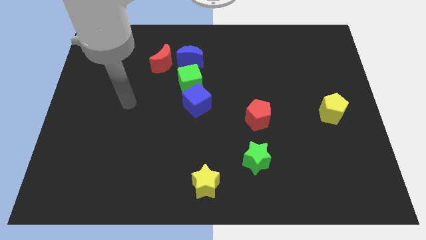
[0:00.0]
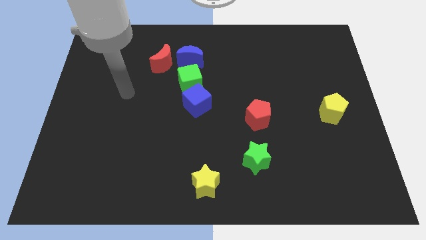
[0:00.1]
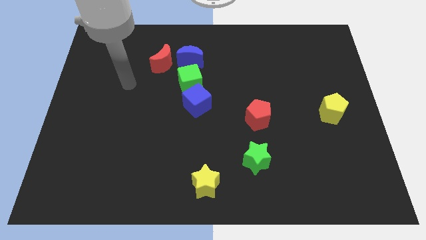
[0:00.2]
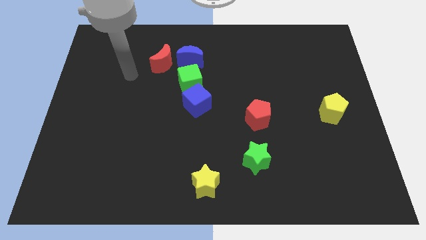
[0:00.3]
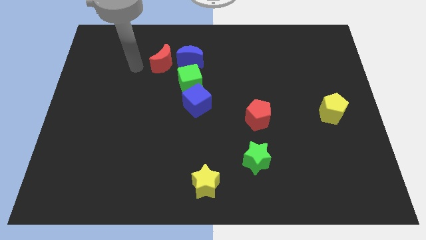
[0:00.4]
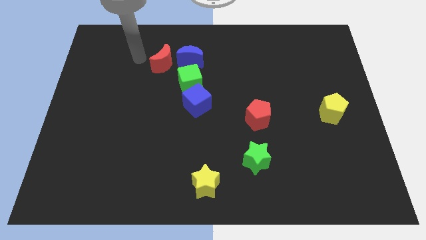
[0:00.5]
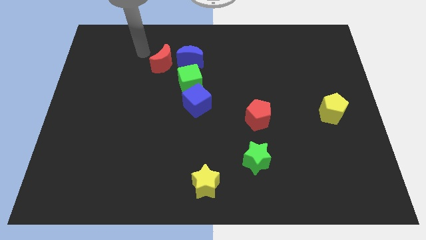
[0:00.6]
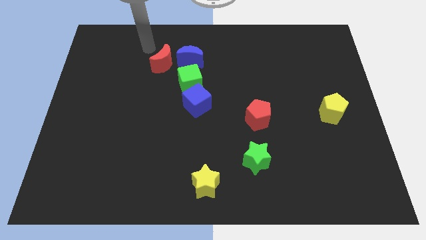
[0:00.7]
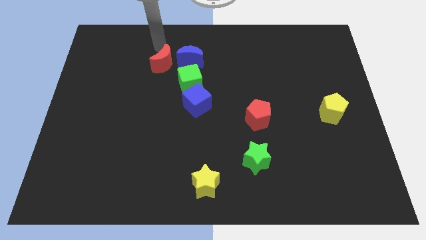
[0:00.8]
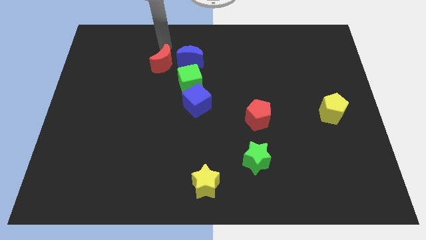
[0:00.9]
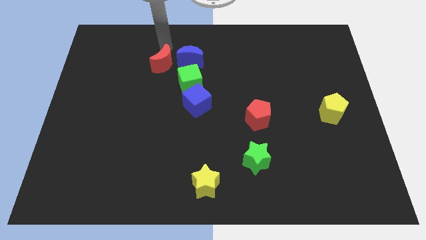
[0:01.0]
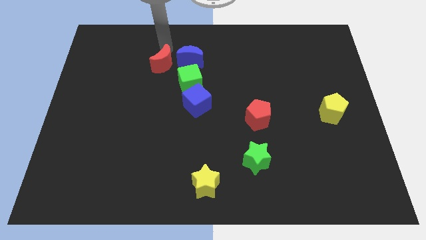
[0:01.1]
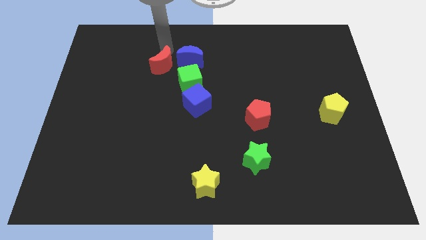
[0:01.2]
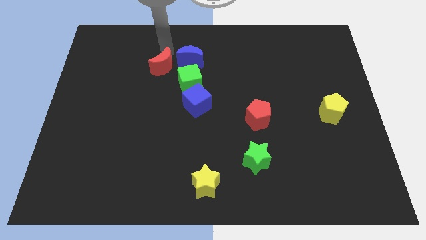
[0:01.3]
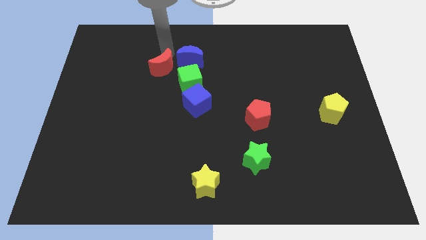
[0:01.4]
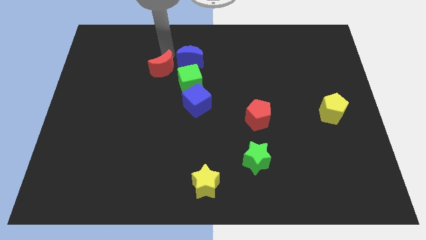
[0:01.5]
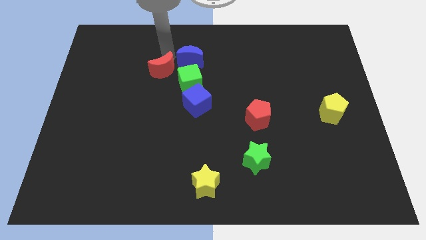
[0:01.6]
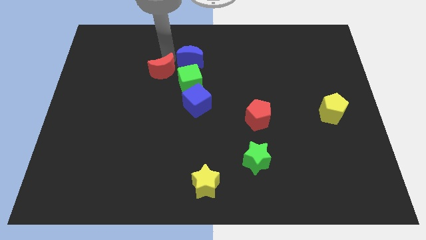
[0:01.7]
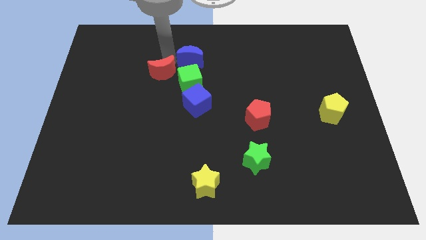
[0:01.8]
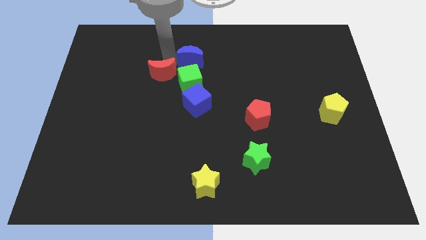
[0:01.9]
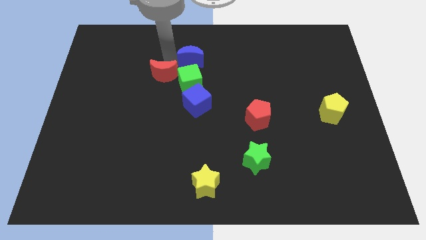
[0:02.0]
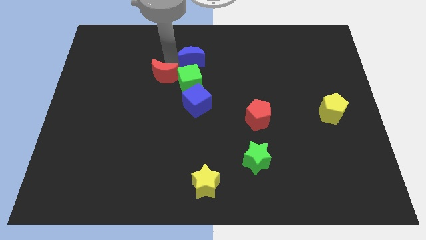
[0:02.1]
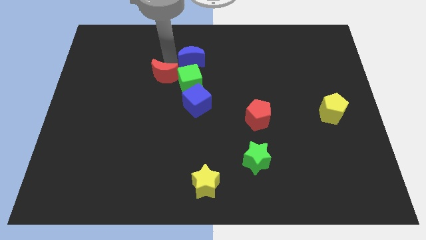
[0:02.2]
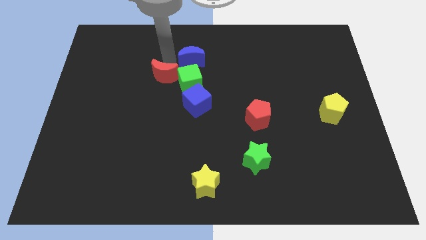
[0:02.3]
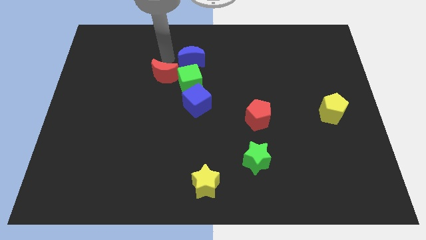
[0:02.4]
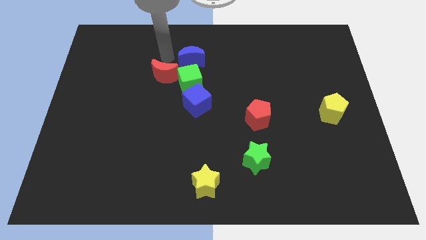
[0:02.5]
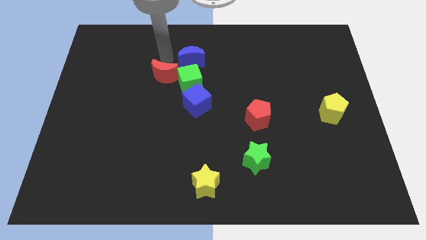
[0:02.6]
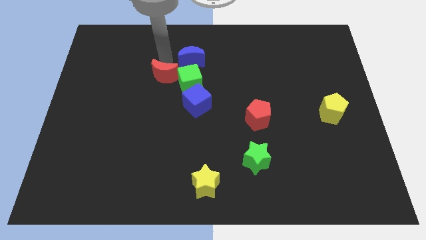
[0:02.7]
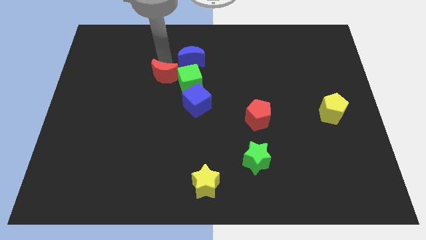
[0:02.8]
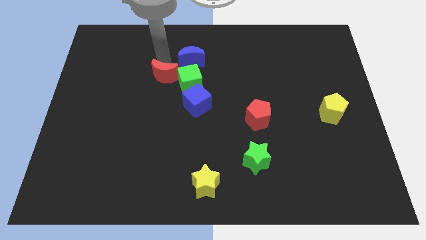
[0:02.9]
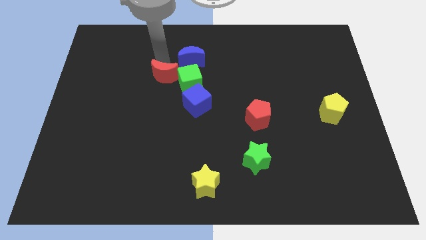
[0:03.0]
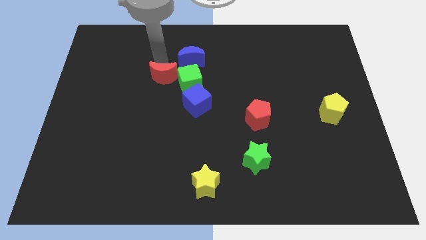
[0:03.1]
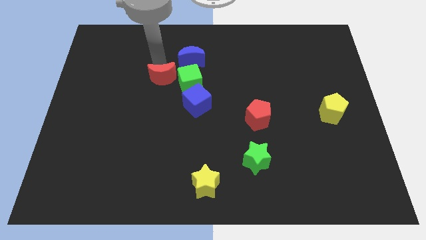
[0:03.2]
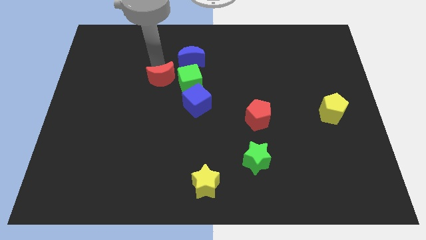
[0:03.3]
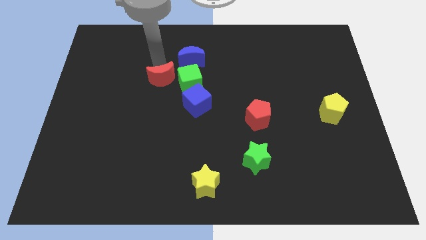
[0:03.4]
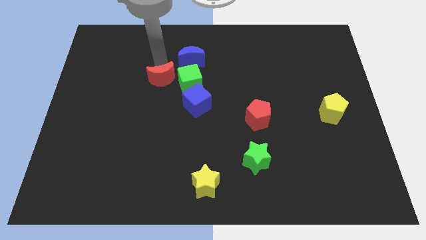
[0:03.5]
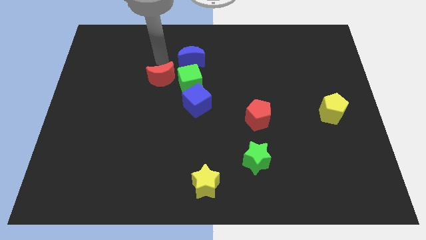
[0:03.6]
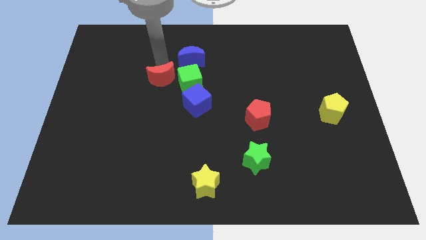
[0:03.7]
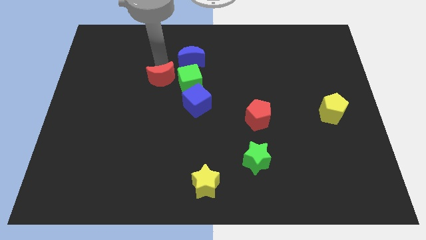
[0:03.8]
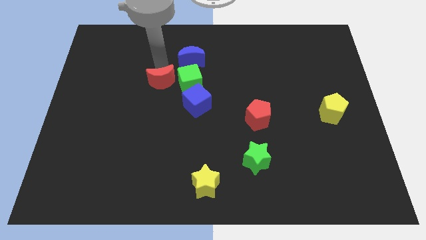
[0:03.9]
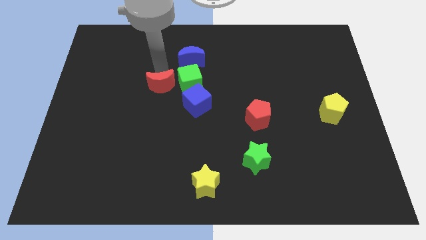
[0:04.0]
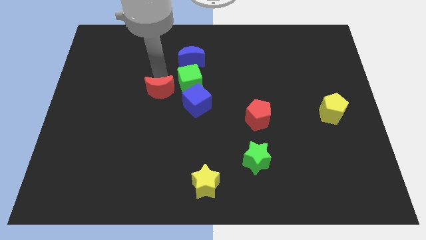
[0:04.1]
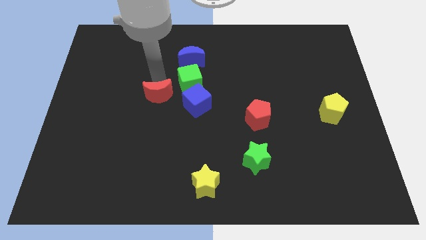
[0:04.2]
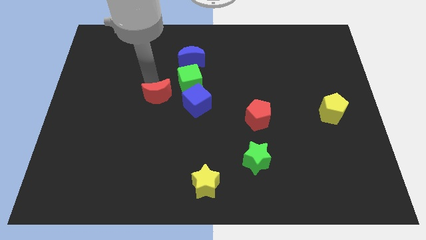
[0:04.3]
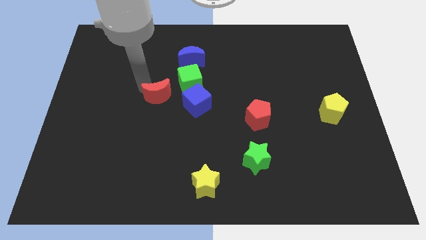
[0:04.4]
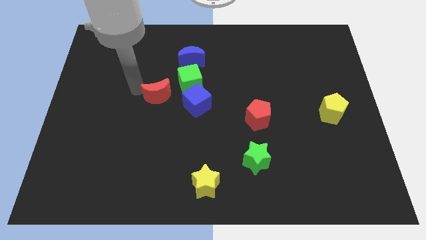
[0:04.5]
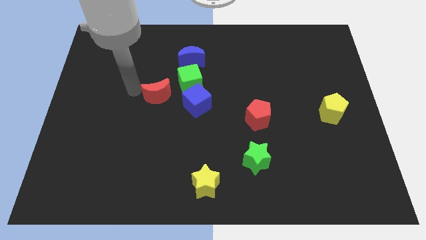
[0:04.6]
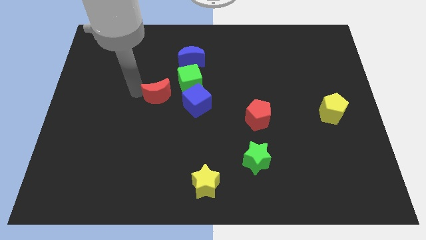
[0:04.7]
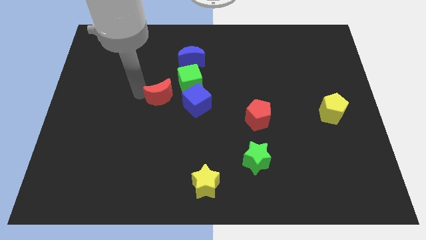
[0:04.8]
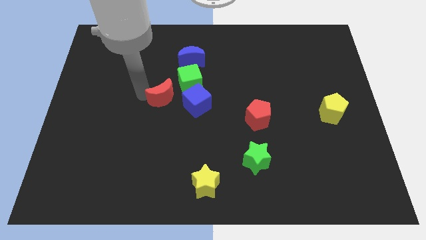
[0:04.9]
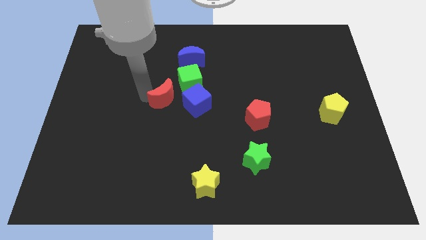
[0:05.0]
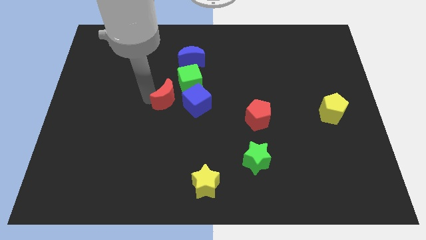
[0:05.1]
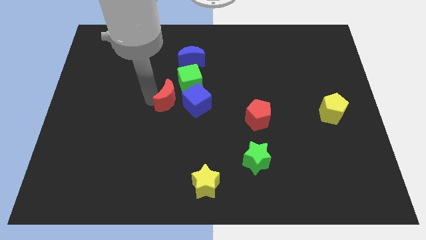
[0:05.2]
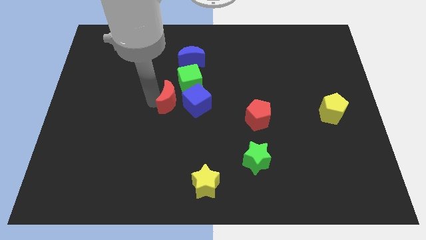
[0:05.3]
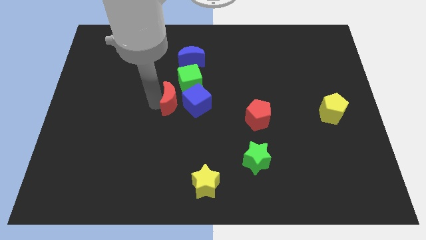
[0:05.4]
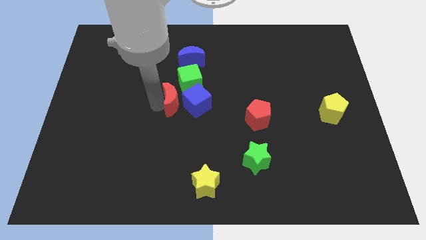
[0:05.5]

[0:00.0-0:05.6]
slide the red moon towards the blue cube

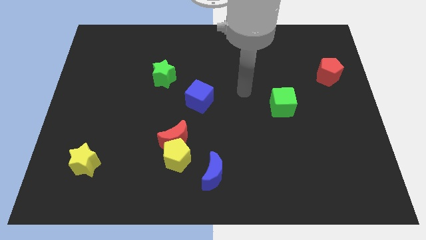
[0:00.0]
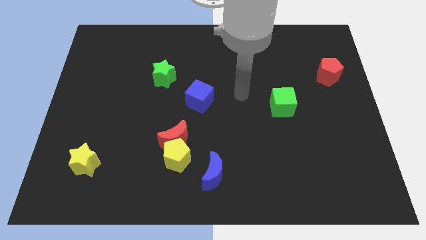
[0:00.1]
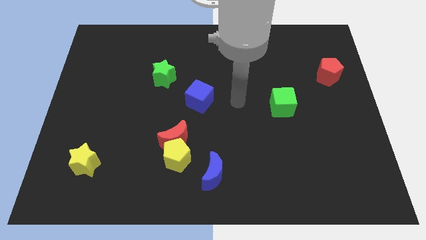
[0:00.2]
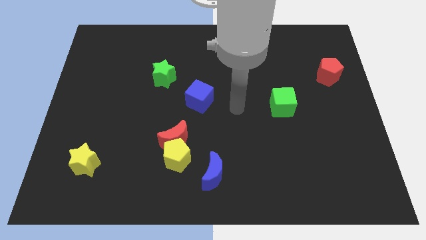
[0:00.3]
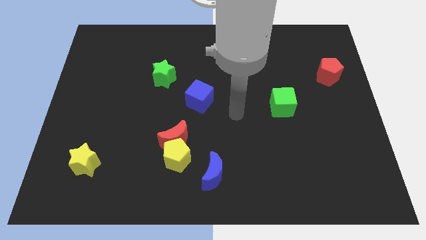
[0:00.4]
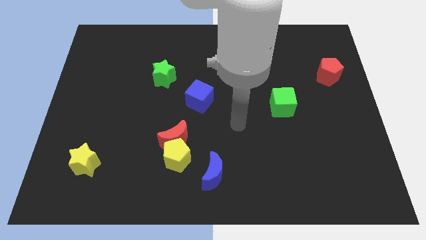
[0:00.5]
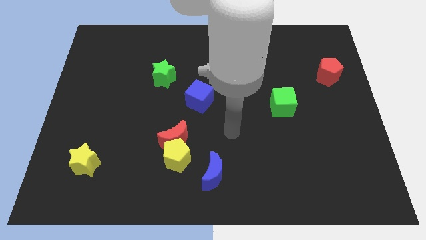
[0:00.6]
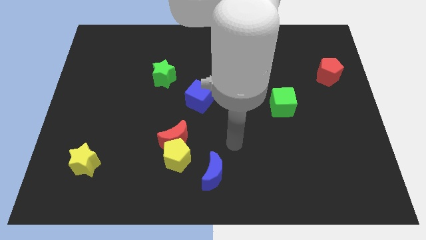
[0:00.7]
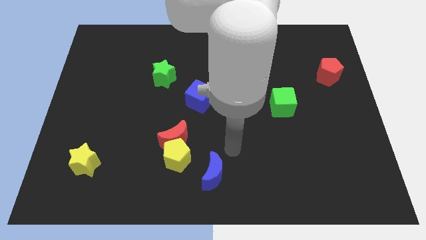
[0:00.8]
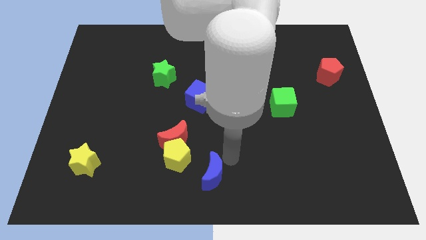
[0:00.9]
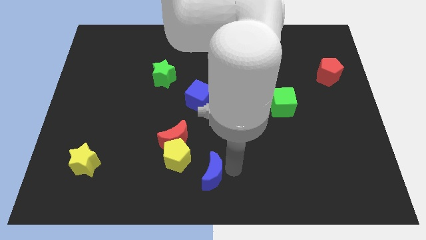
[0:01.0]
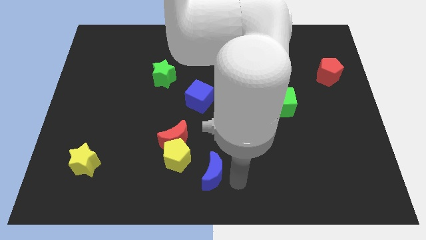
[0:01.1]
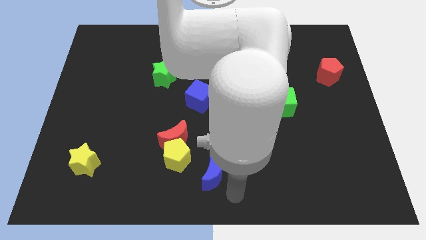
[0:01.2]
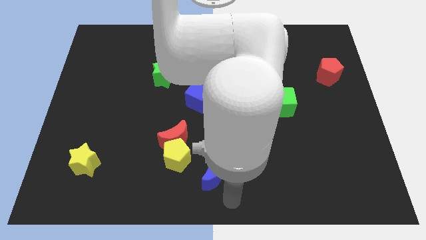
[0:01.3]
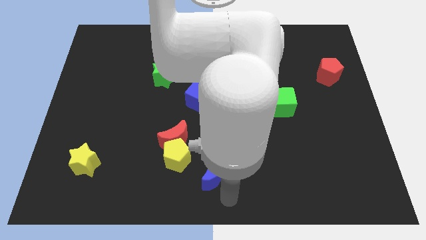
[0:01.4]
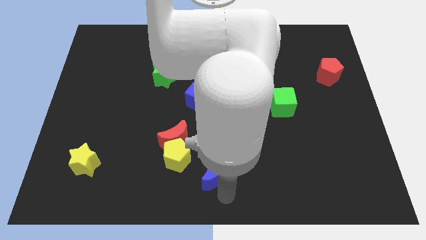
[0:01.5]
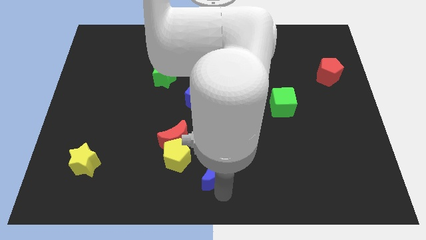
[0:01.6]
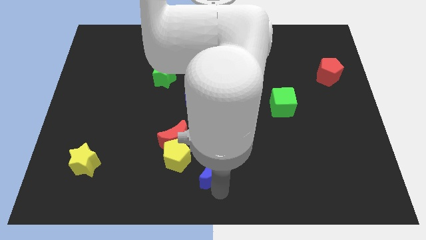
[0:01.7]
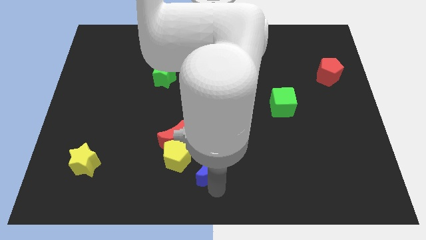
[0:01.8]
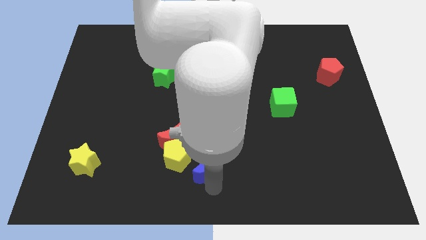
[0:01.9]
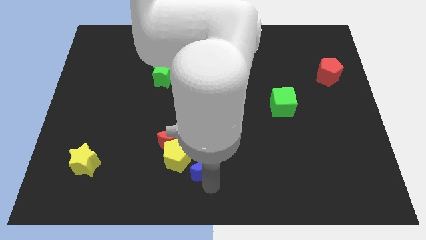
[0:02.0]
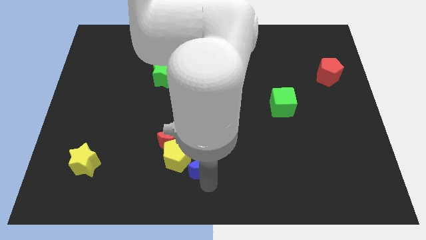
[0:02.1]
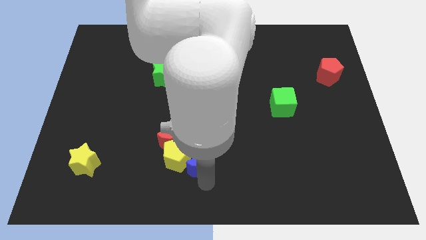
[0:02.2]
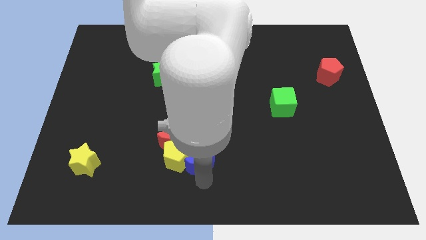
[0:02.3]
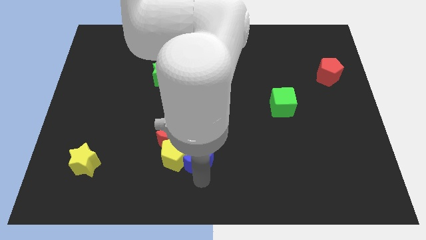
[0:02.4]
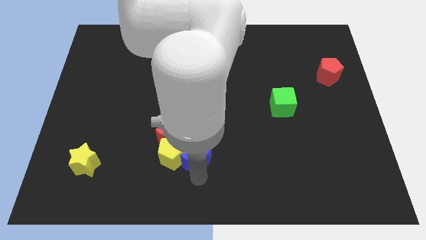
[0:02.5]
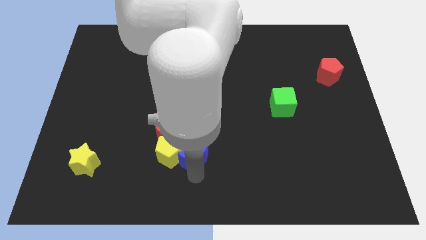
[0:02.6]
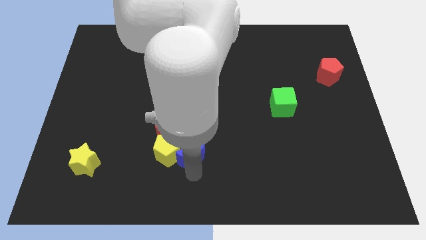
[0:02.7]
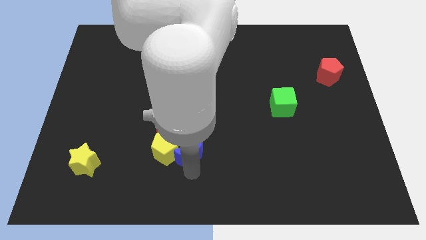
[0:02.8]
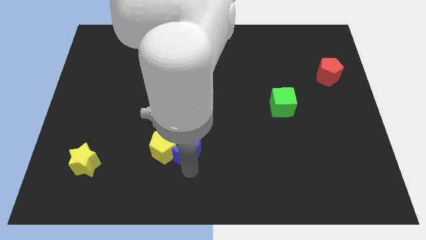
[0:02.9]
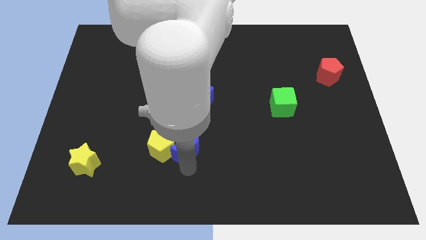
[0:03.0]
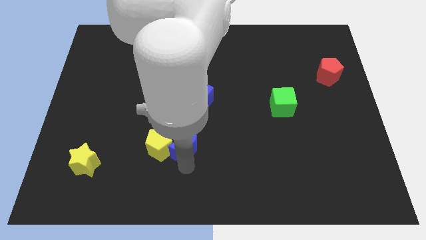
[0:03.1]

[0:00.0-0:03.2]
slide the blue moon towards the red moon
